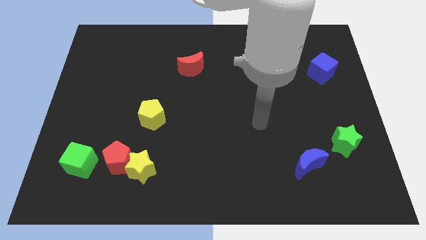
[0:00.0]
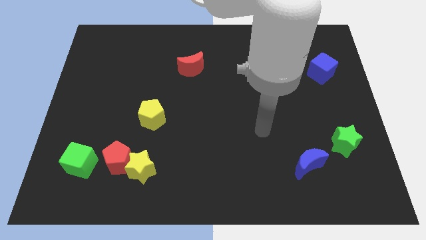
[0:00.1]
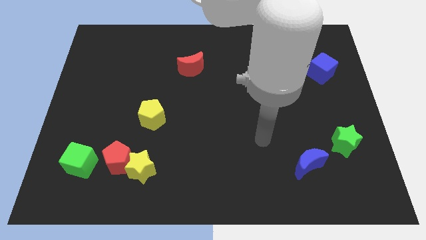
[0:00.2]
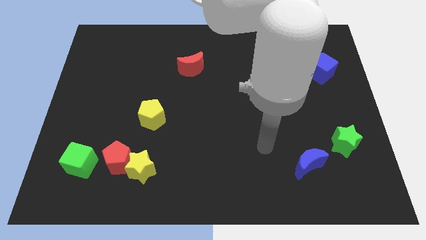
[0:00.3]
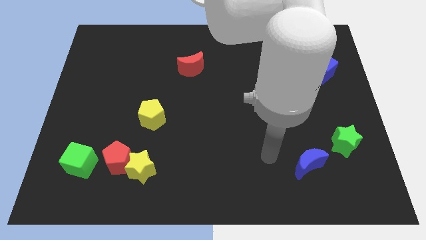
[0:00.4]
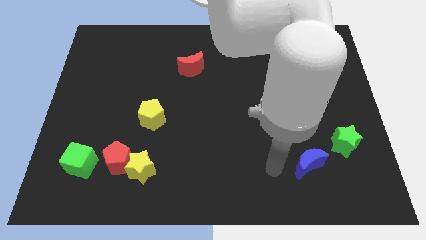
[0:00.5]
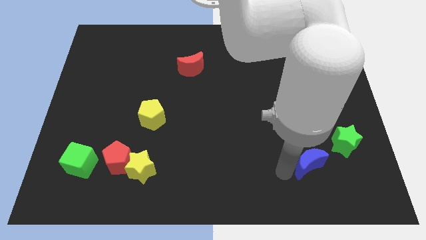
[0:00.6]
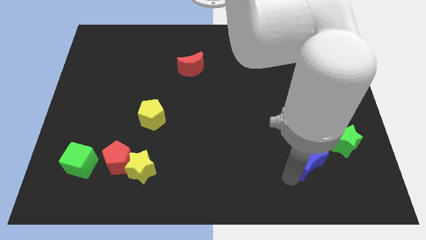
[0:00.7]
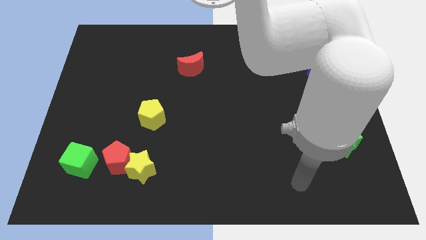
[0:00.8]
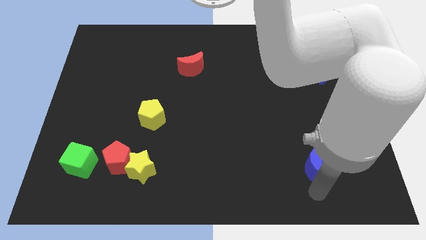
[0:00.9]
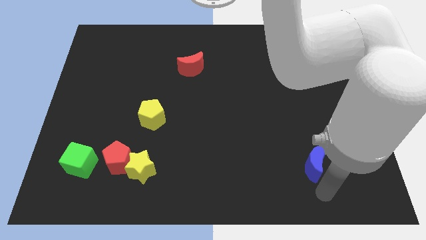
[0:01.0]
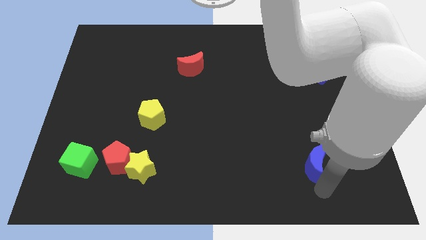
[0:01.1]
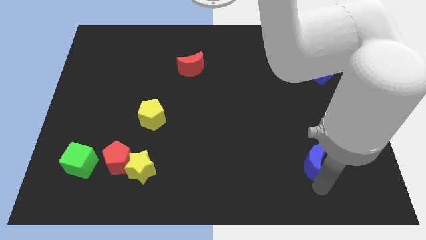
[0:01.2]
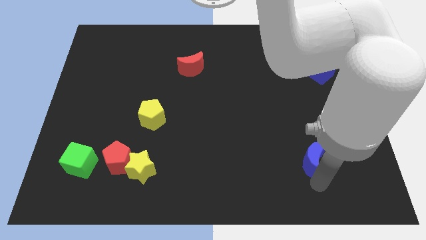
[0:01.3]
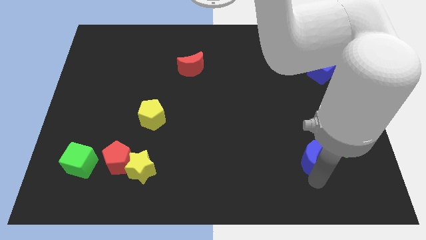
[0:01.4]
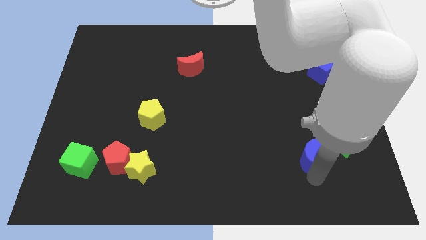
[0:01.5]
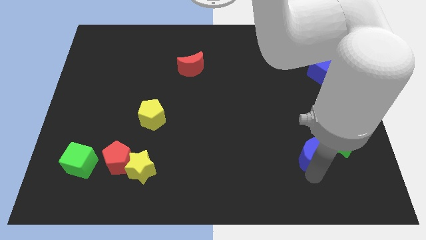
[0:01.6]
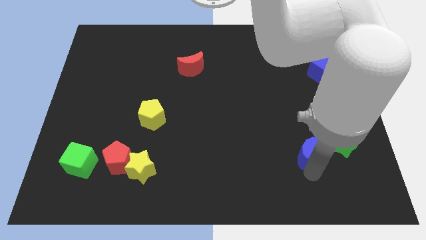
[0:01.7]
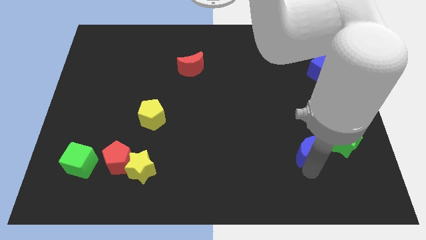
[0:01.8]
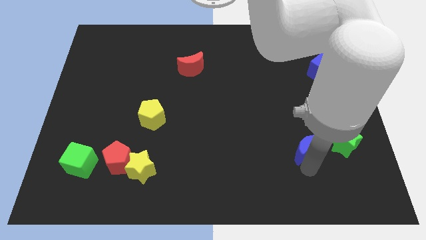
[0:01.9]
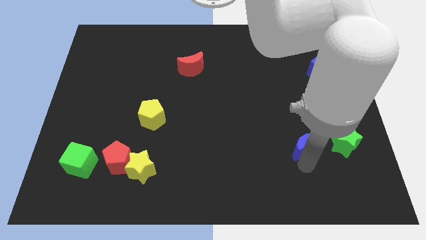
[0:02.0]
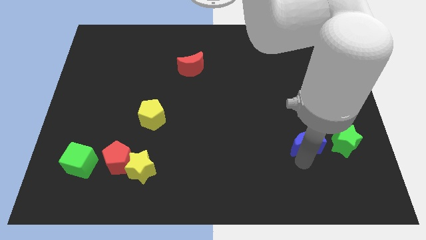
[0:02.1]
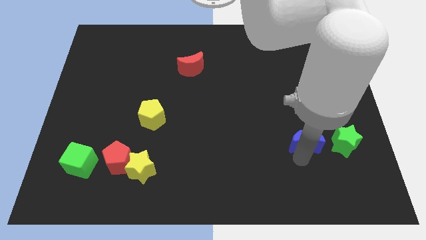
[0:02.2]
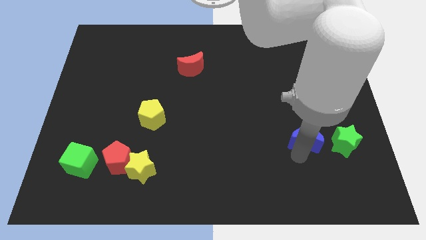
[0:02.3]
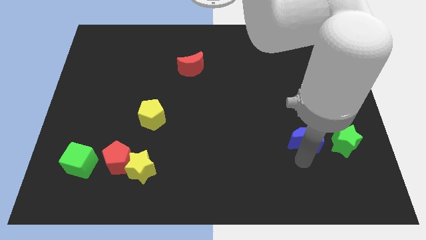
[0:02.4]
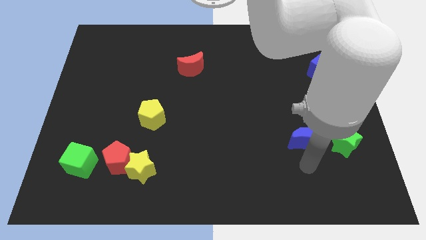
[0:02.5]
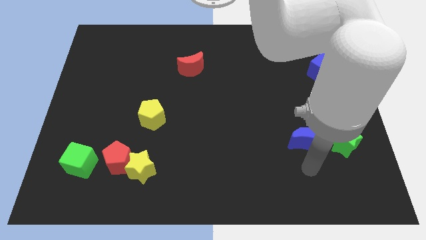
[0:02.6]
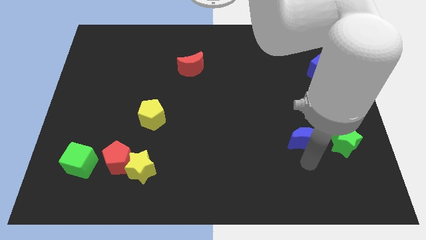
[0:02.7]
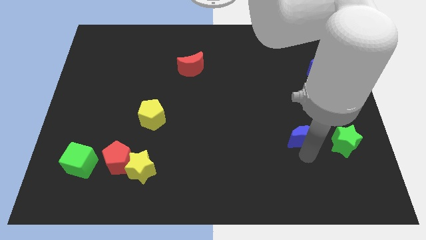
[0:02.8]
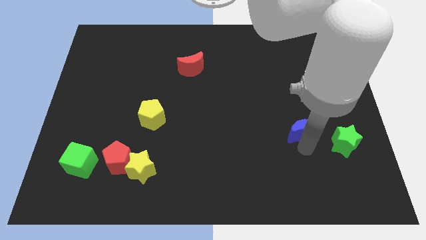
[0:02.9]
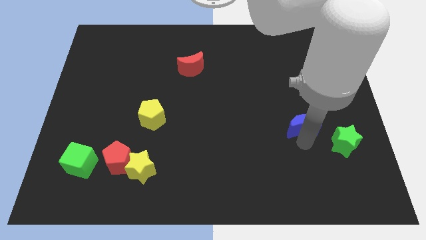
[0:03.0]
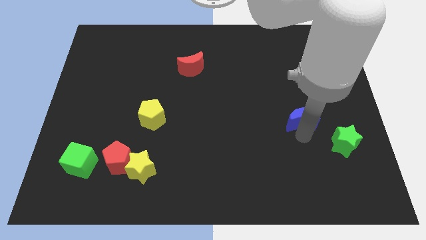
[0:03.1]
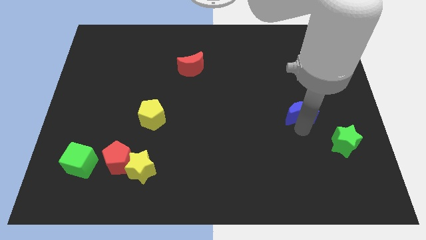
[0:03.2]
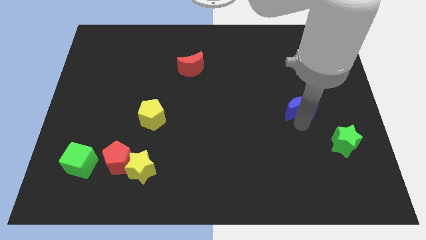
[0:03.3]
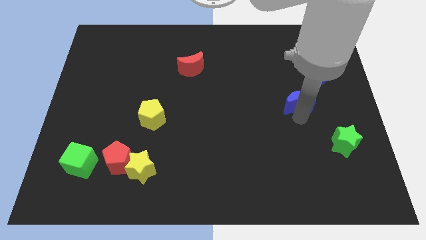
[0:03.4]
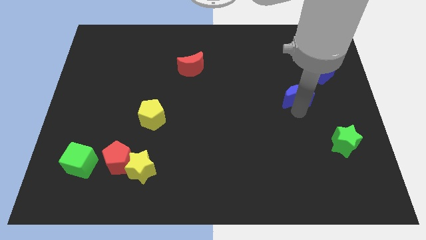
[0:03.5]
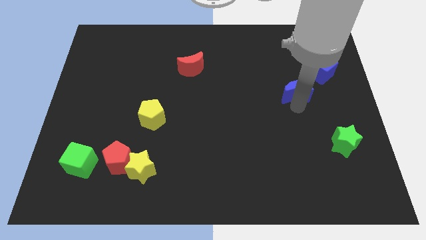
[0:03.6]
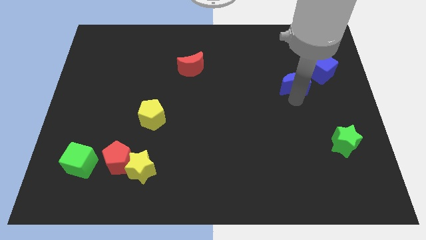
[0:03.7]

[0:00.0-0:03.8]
push the blue moon upwards

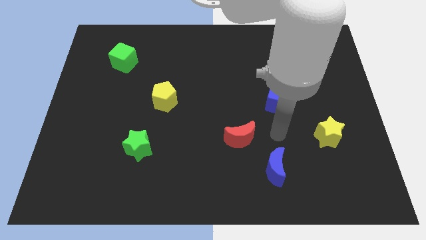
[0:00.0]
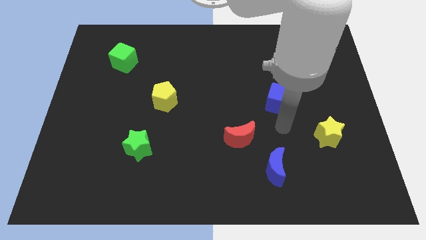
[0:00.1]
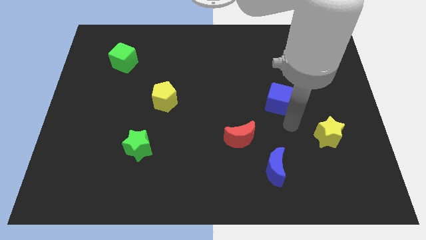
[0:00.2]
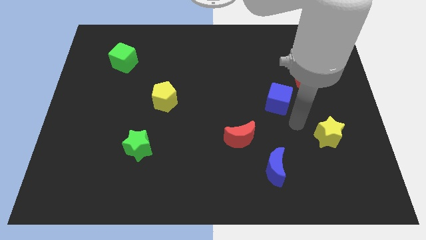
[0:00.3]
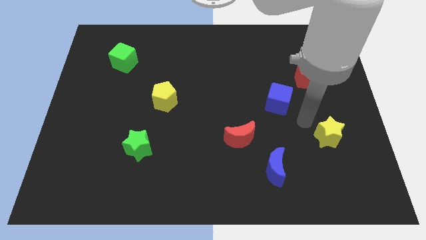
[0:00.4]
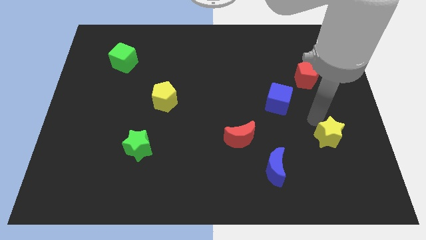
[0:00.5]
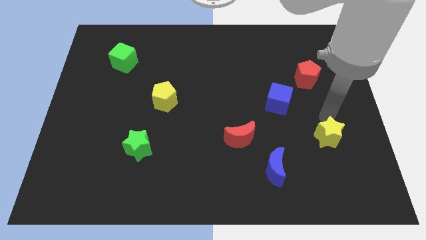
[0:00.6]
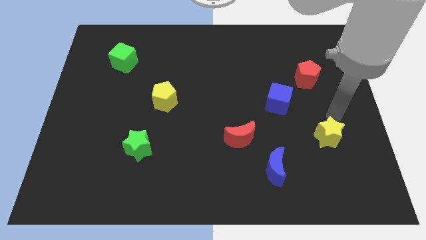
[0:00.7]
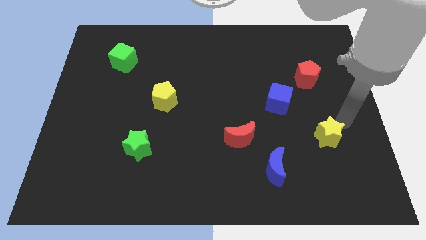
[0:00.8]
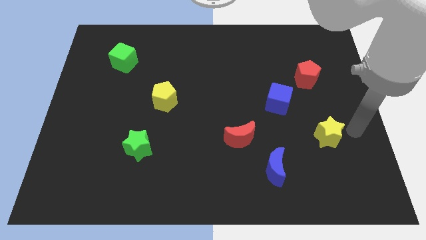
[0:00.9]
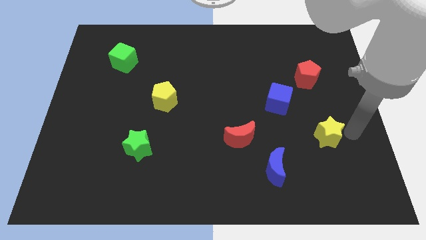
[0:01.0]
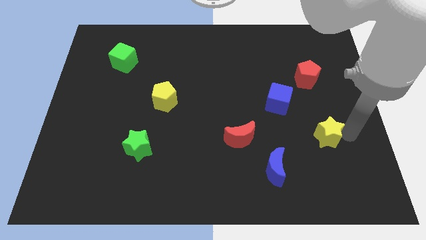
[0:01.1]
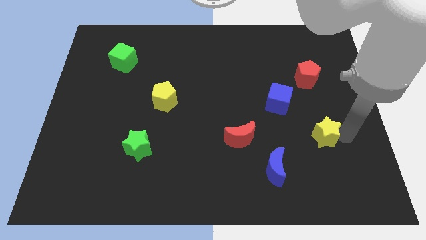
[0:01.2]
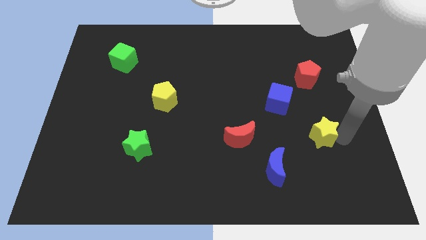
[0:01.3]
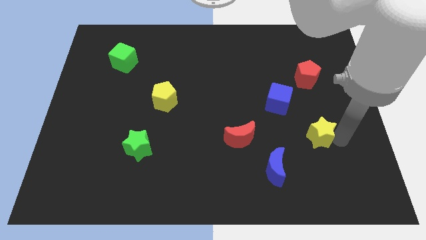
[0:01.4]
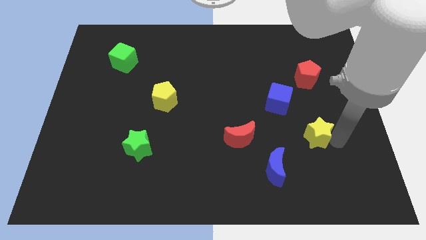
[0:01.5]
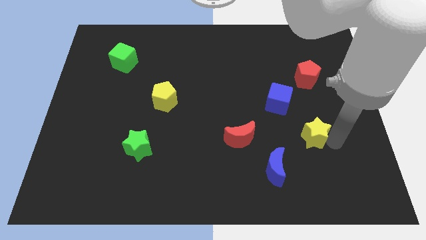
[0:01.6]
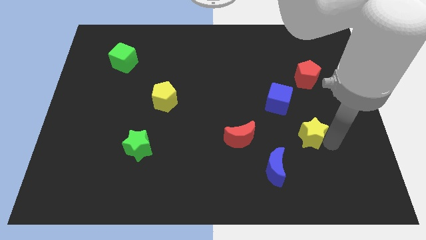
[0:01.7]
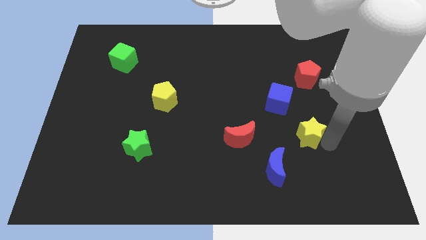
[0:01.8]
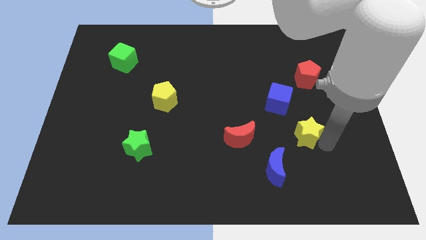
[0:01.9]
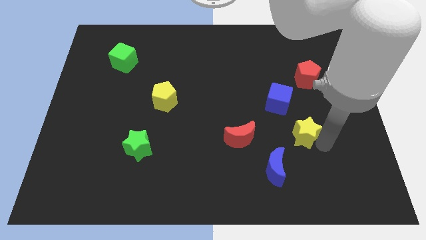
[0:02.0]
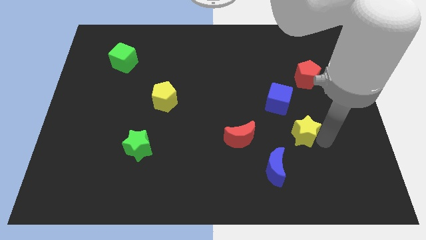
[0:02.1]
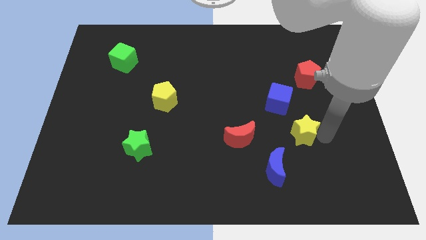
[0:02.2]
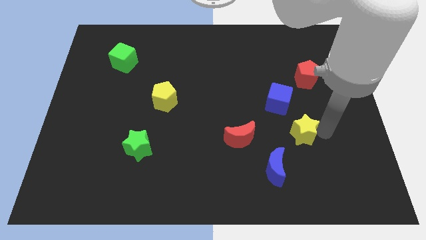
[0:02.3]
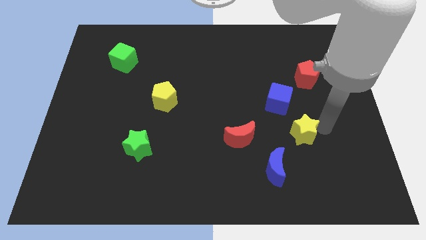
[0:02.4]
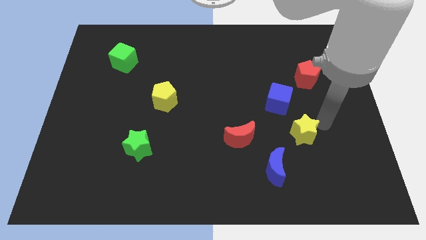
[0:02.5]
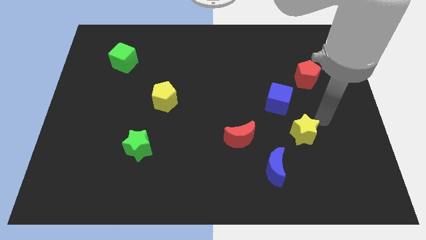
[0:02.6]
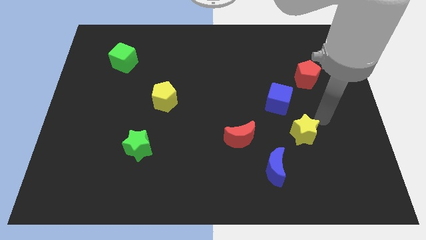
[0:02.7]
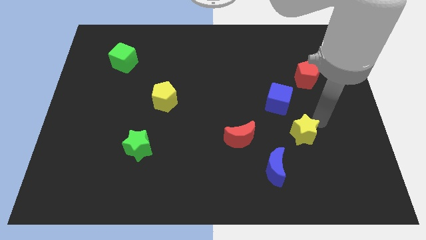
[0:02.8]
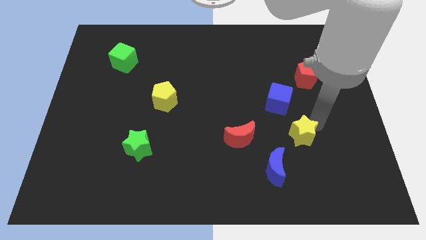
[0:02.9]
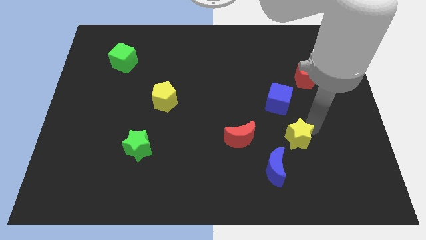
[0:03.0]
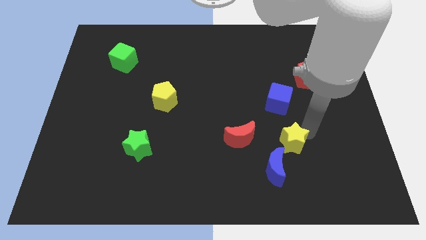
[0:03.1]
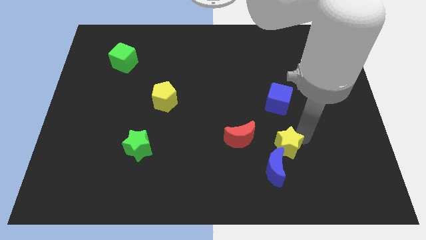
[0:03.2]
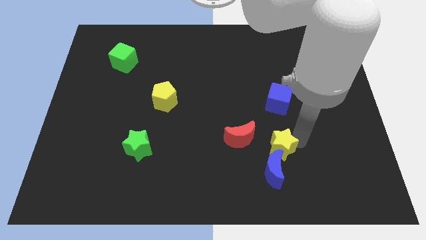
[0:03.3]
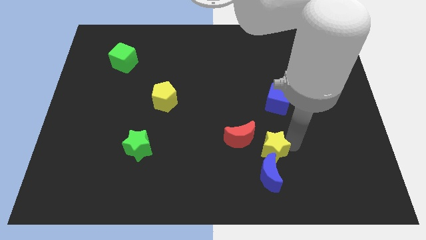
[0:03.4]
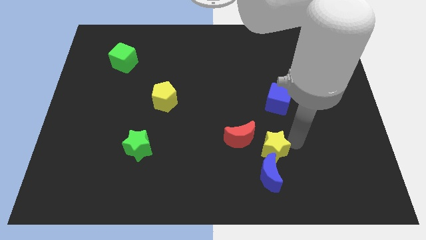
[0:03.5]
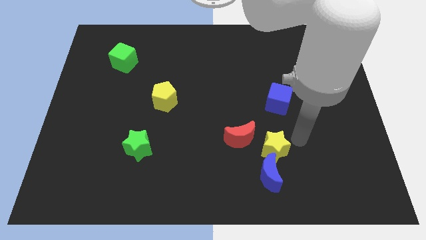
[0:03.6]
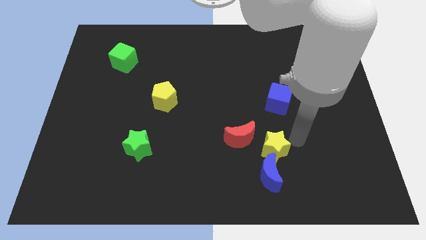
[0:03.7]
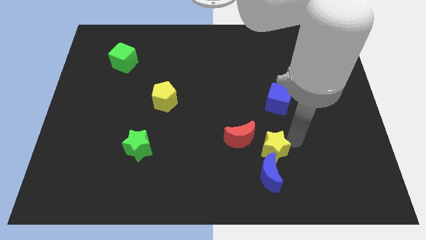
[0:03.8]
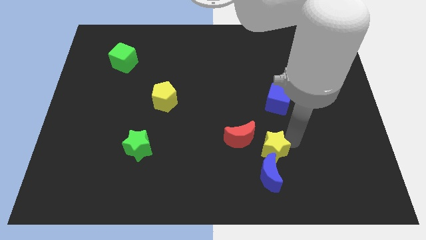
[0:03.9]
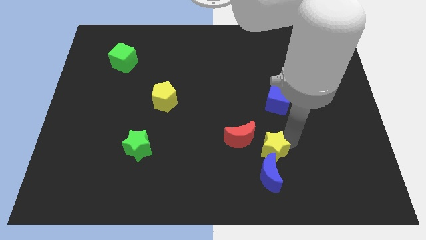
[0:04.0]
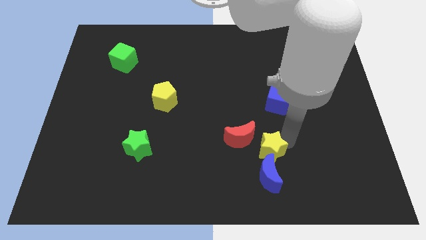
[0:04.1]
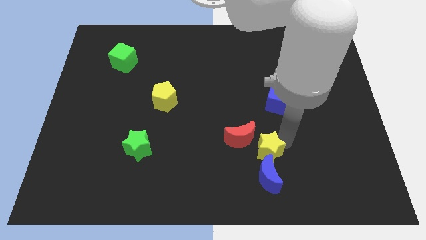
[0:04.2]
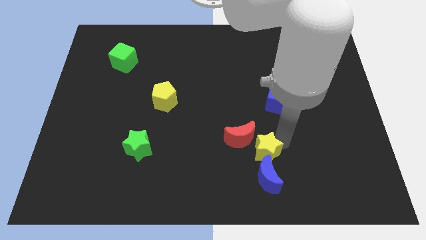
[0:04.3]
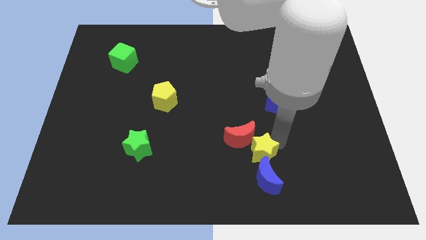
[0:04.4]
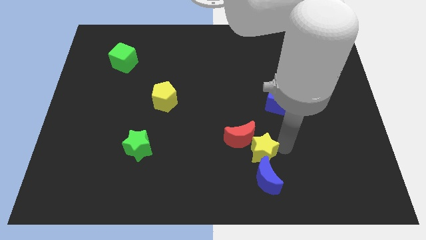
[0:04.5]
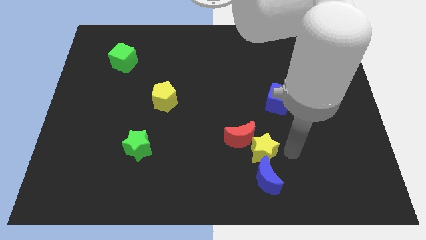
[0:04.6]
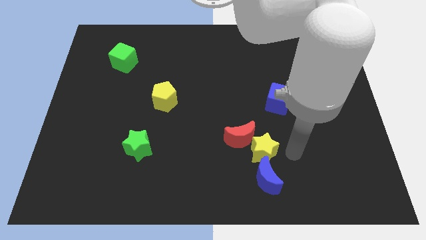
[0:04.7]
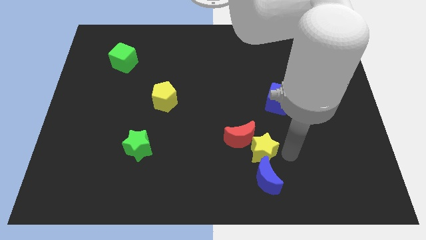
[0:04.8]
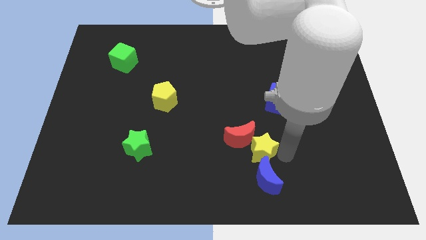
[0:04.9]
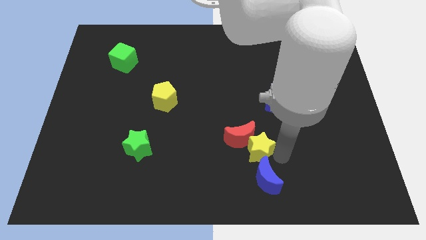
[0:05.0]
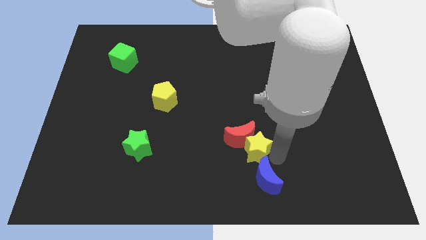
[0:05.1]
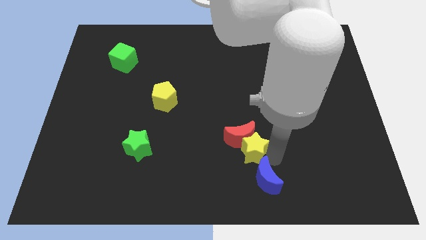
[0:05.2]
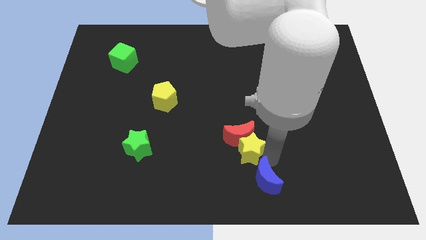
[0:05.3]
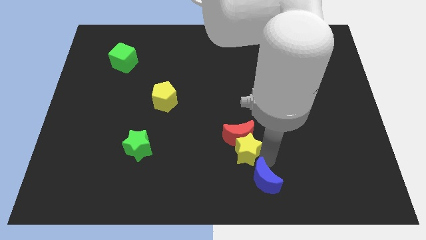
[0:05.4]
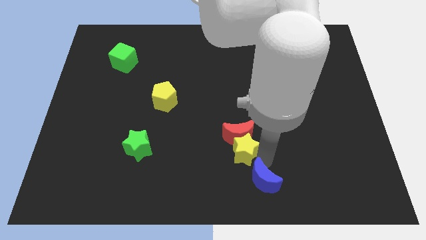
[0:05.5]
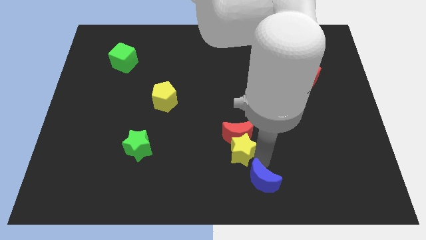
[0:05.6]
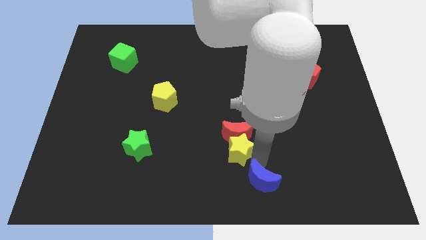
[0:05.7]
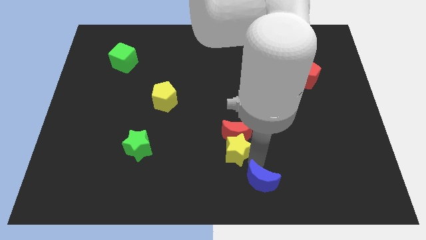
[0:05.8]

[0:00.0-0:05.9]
move the yellow star to the left
